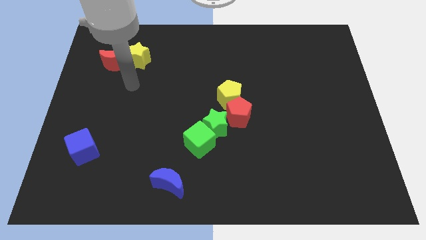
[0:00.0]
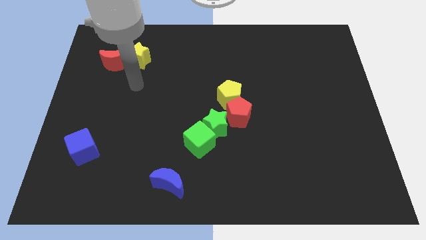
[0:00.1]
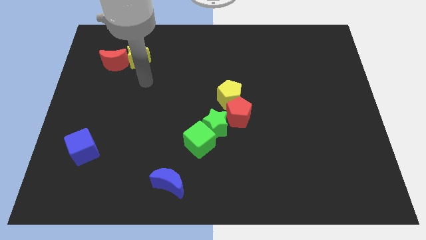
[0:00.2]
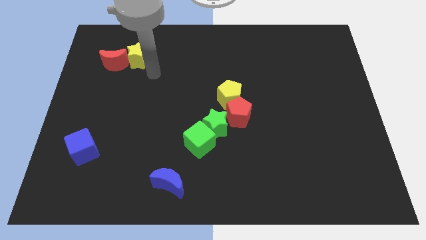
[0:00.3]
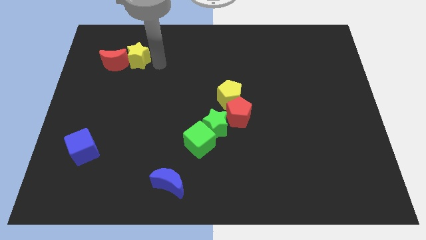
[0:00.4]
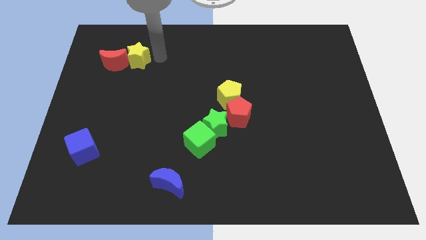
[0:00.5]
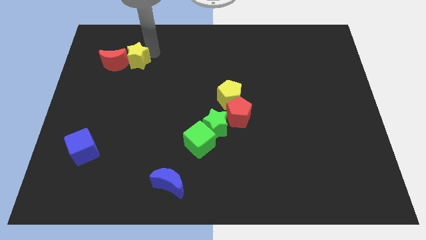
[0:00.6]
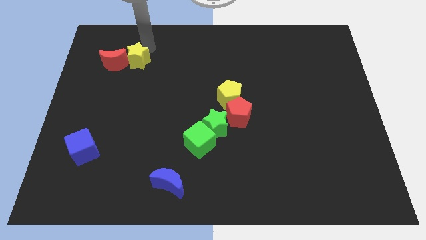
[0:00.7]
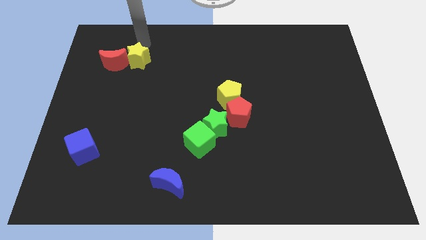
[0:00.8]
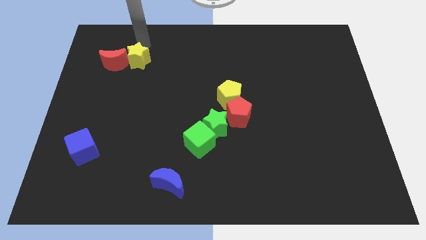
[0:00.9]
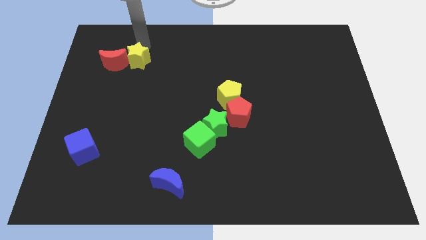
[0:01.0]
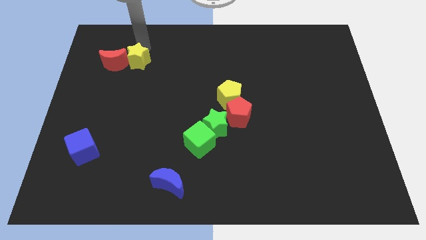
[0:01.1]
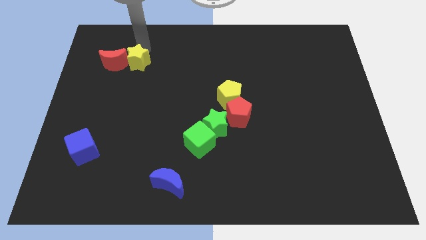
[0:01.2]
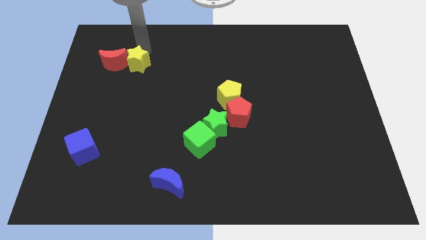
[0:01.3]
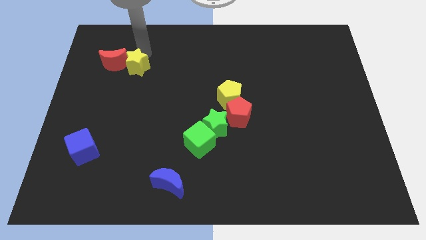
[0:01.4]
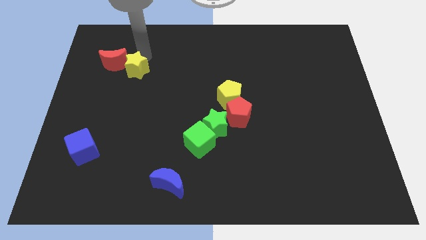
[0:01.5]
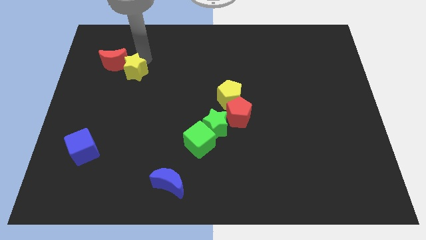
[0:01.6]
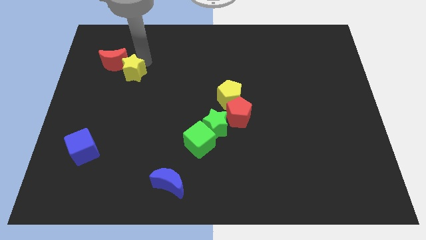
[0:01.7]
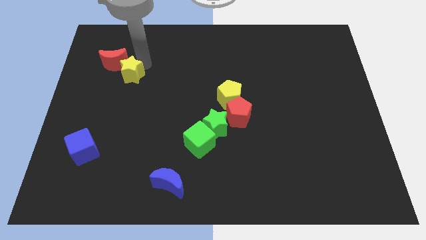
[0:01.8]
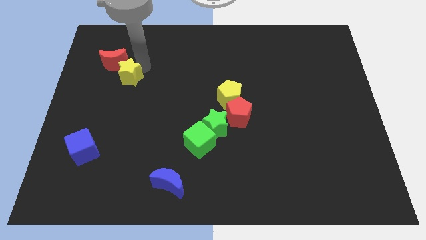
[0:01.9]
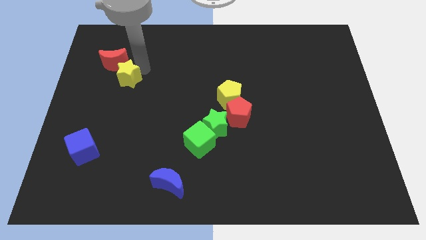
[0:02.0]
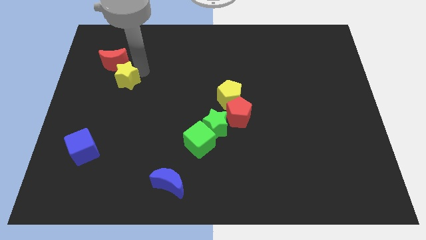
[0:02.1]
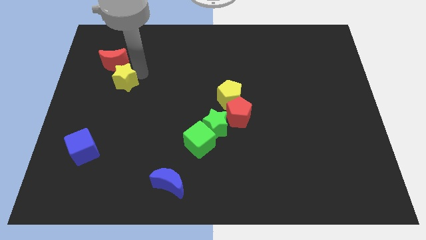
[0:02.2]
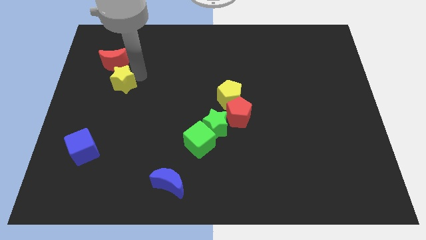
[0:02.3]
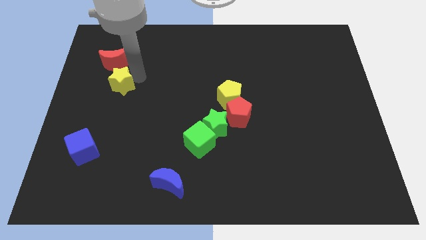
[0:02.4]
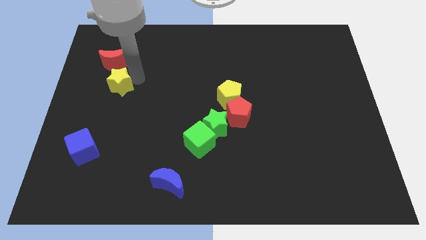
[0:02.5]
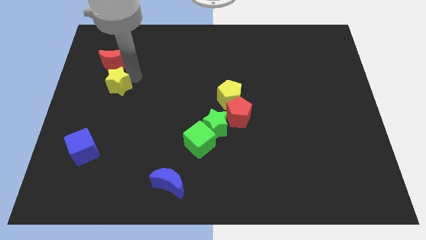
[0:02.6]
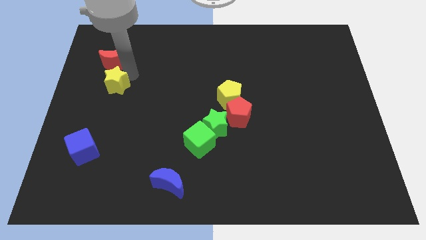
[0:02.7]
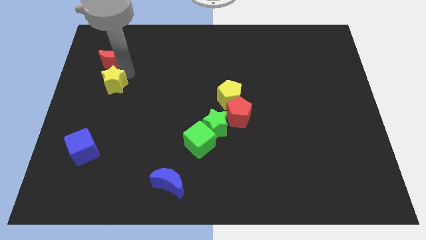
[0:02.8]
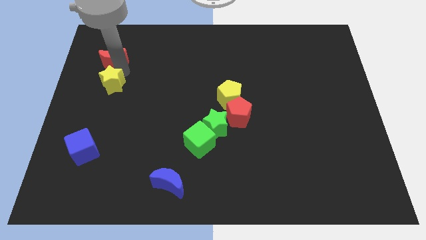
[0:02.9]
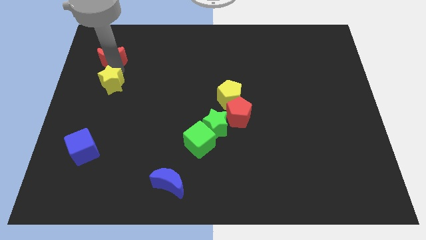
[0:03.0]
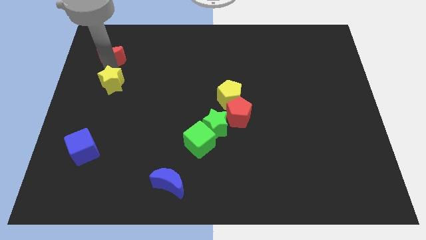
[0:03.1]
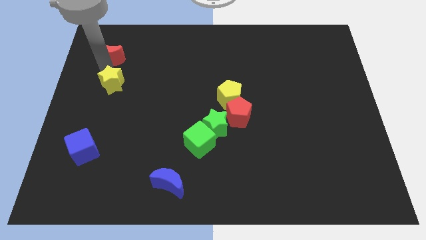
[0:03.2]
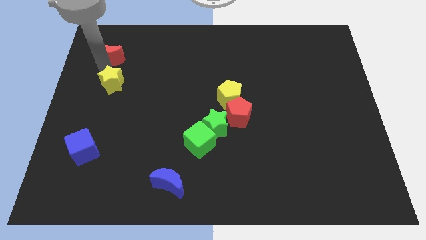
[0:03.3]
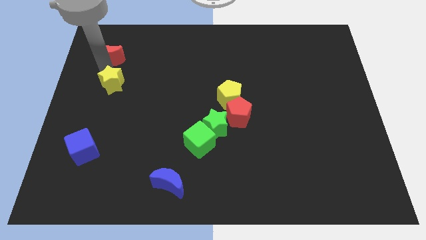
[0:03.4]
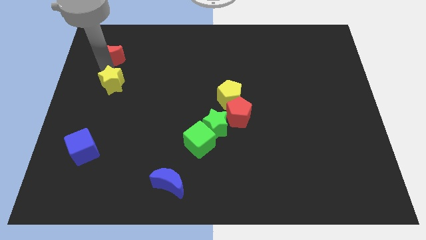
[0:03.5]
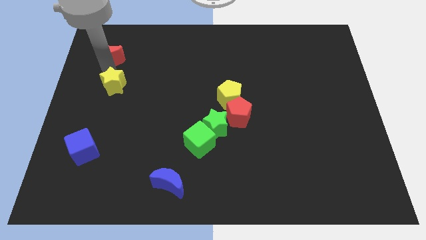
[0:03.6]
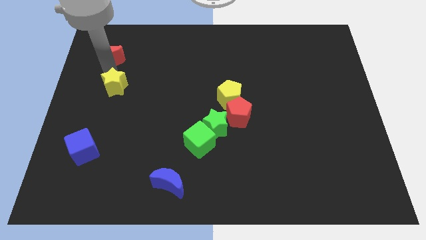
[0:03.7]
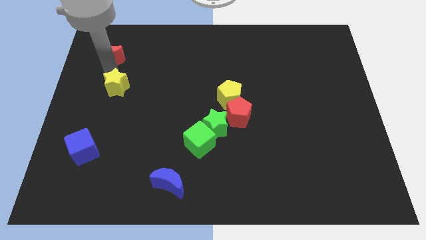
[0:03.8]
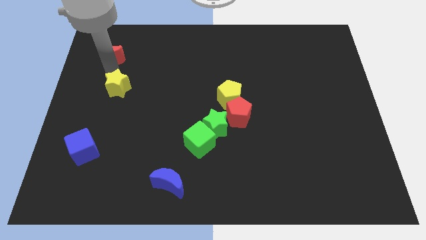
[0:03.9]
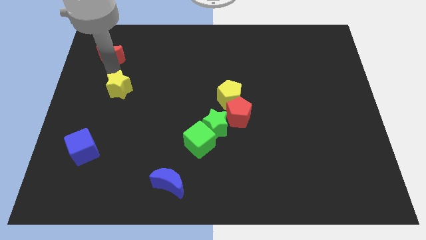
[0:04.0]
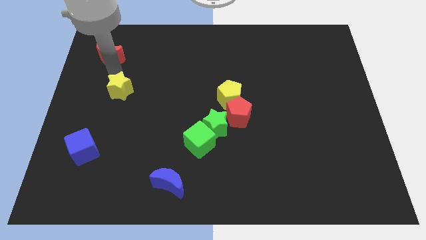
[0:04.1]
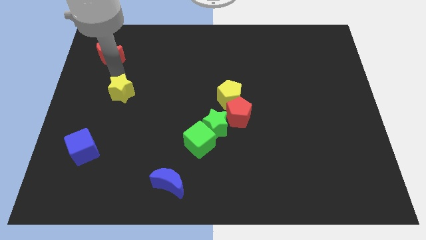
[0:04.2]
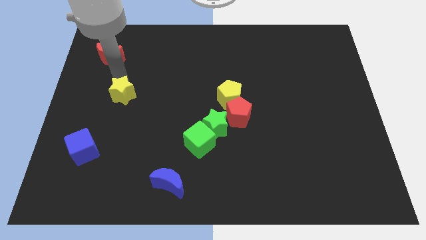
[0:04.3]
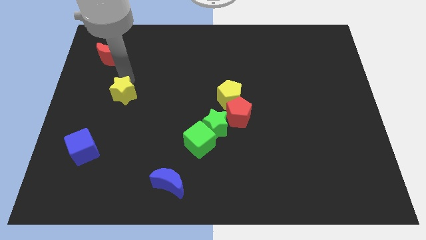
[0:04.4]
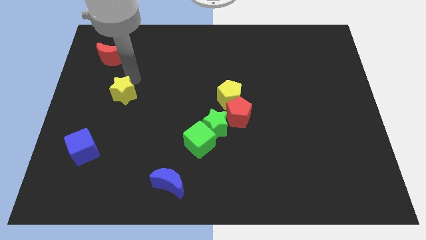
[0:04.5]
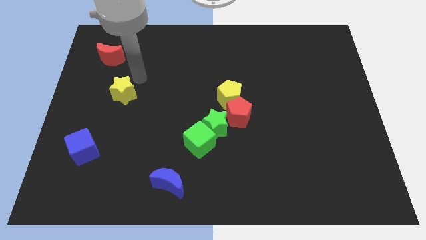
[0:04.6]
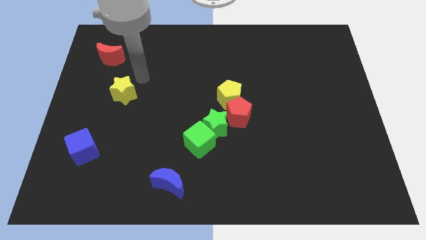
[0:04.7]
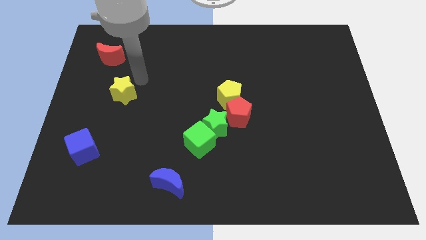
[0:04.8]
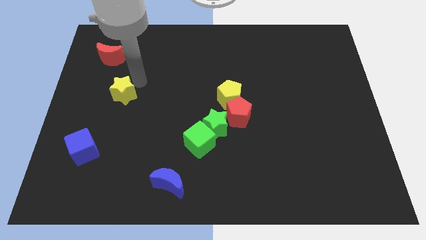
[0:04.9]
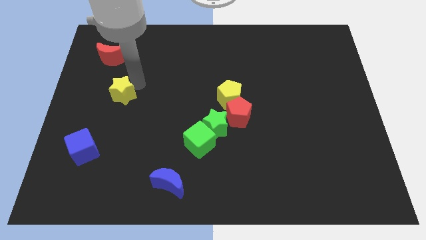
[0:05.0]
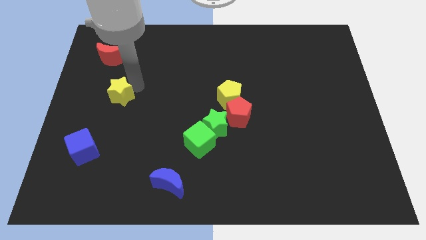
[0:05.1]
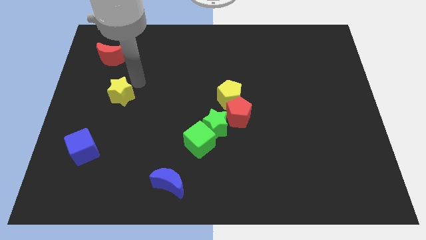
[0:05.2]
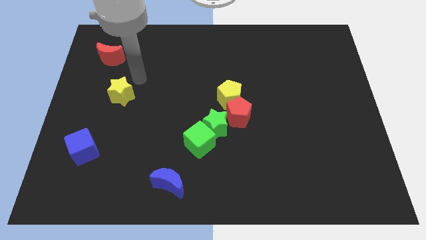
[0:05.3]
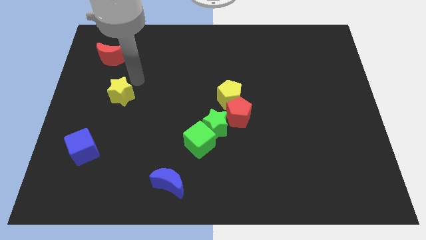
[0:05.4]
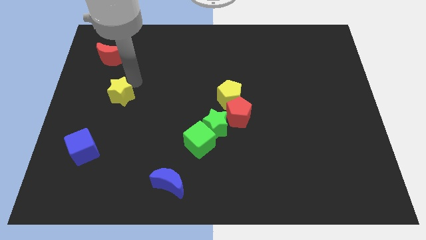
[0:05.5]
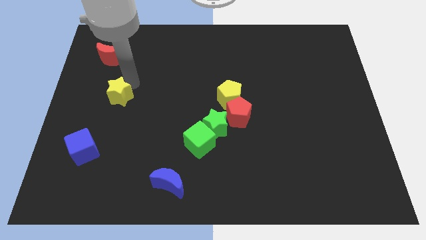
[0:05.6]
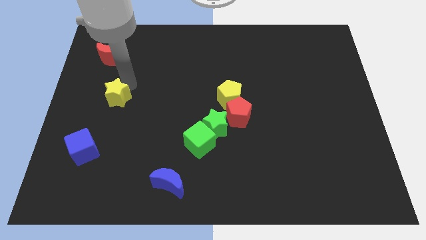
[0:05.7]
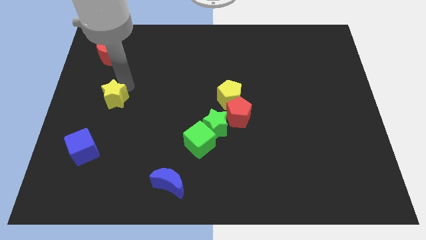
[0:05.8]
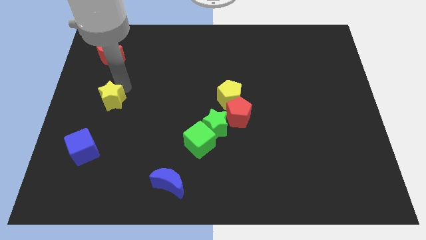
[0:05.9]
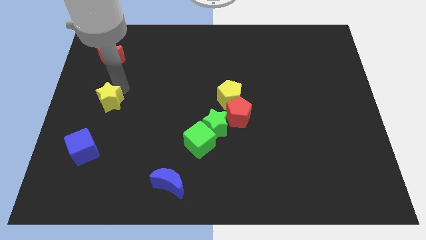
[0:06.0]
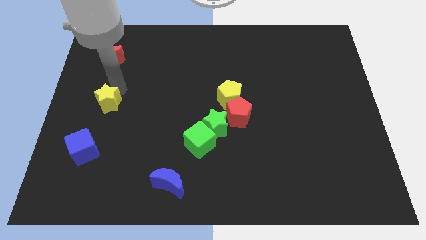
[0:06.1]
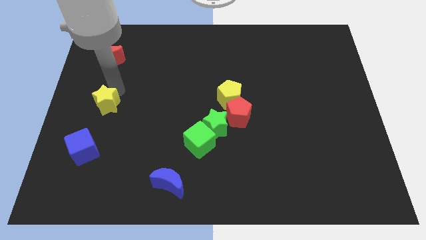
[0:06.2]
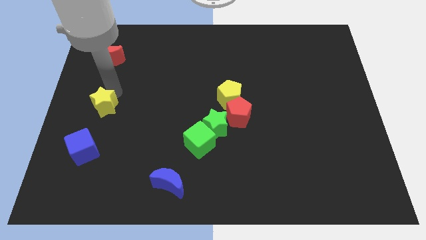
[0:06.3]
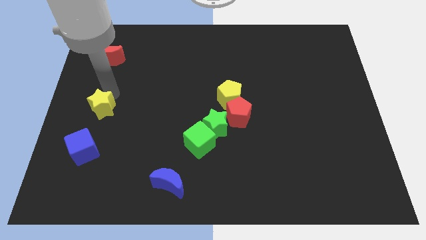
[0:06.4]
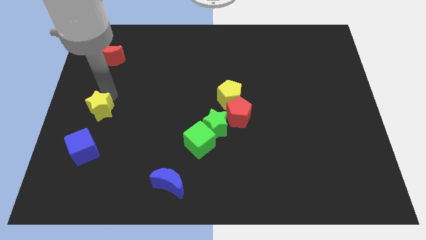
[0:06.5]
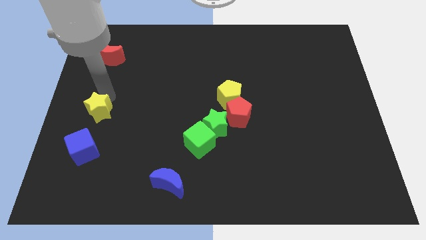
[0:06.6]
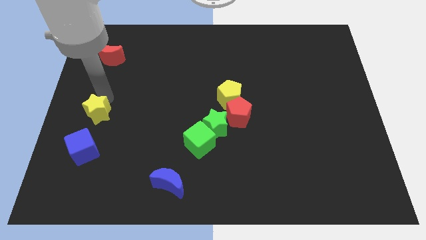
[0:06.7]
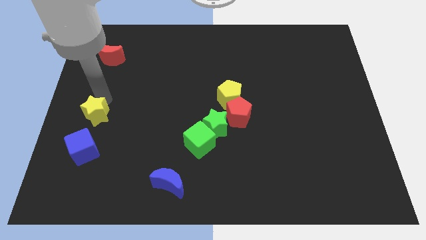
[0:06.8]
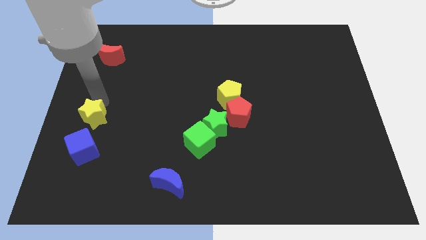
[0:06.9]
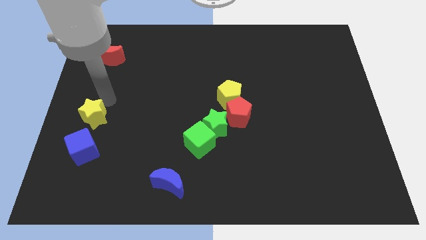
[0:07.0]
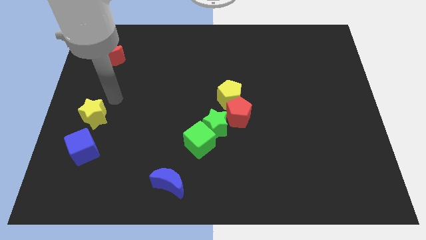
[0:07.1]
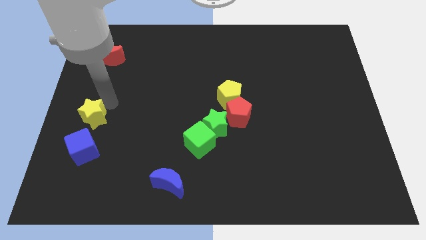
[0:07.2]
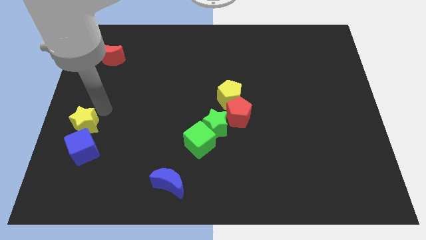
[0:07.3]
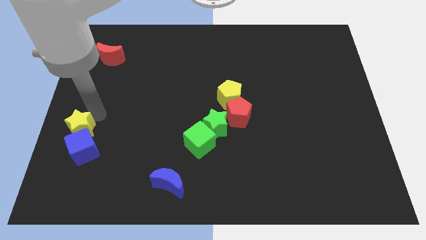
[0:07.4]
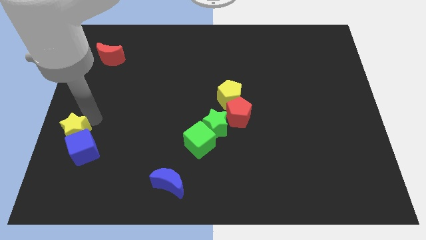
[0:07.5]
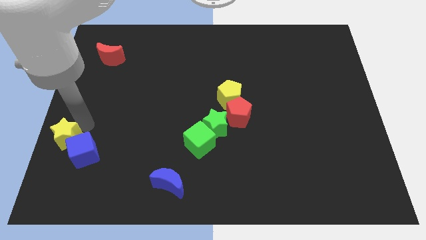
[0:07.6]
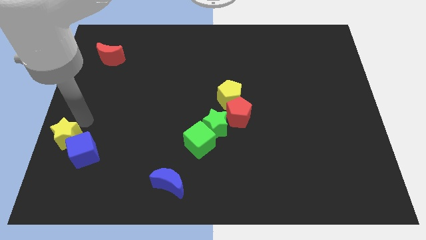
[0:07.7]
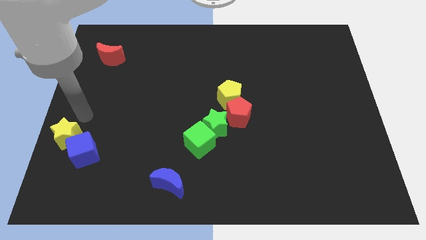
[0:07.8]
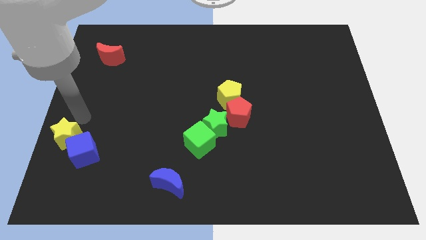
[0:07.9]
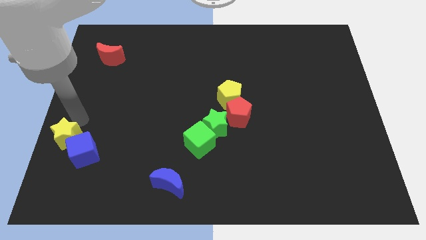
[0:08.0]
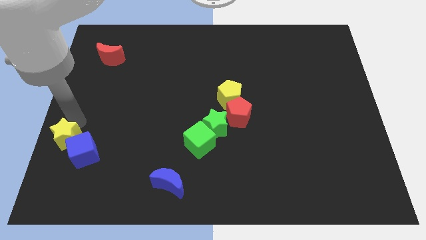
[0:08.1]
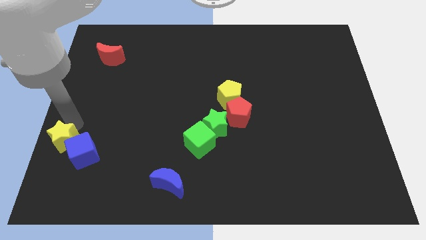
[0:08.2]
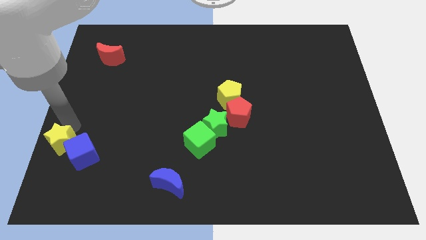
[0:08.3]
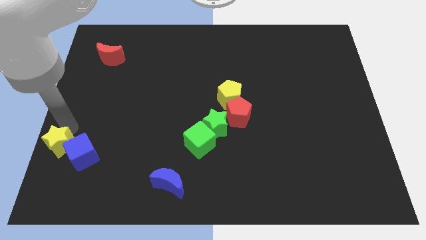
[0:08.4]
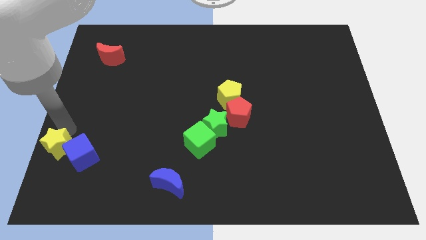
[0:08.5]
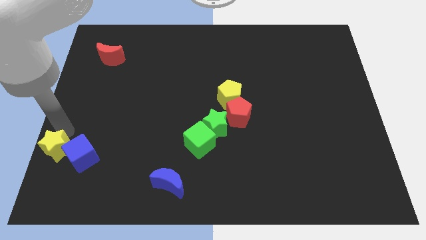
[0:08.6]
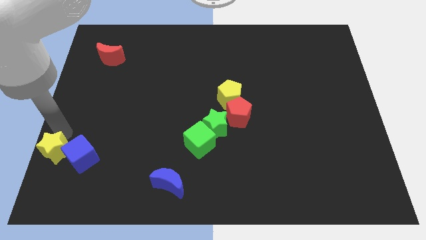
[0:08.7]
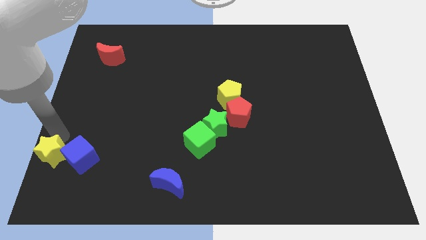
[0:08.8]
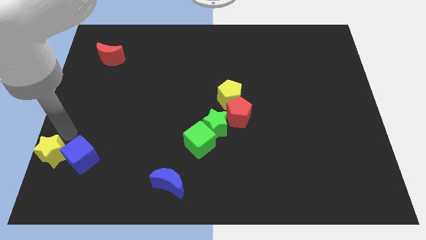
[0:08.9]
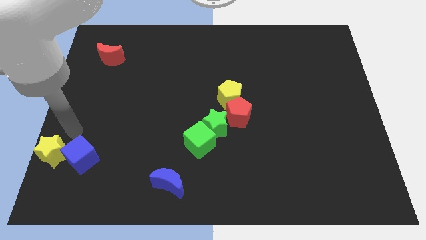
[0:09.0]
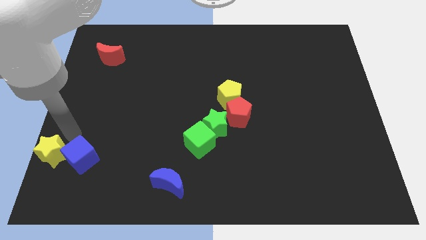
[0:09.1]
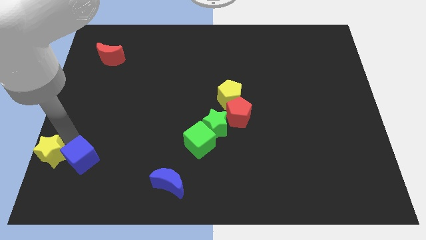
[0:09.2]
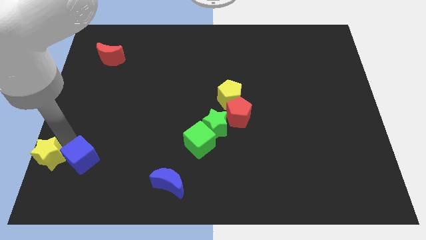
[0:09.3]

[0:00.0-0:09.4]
move the yellow star to the bottom left of the board
